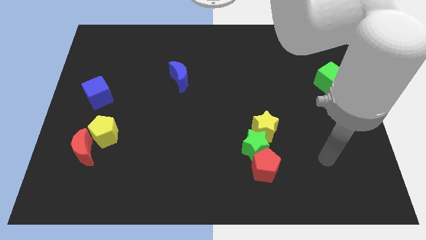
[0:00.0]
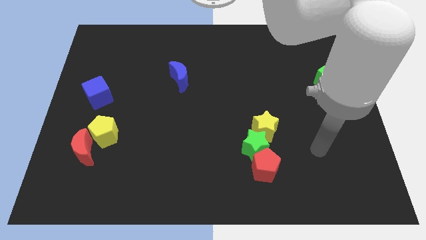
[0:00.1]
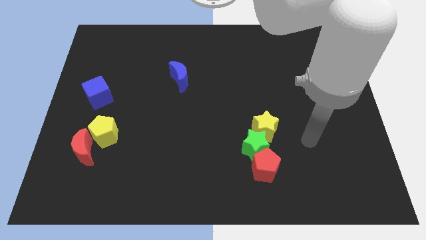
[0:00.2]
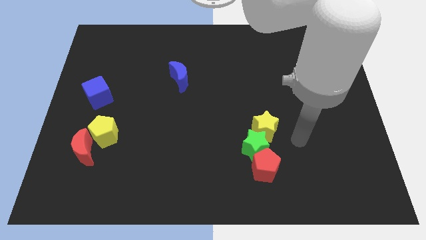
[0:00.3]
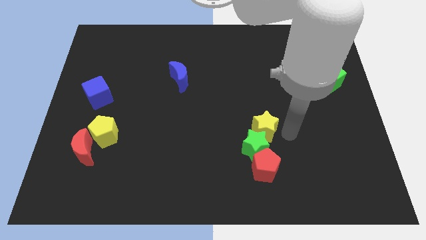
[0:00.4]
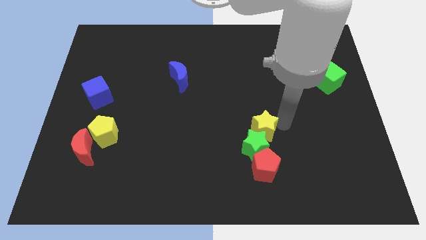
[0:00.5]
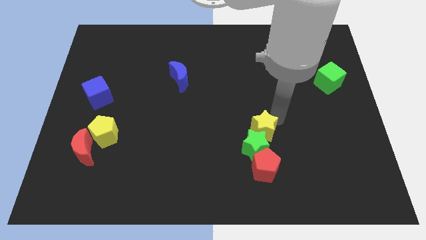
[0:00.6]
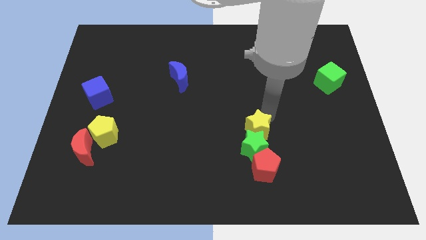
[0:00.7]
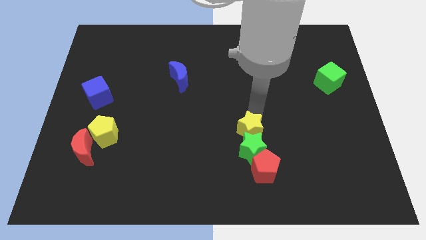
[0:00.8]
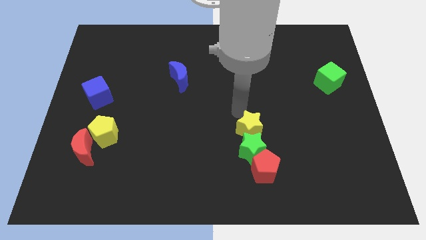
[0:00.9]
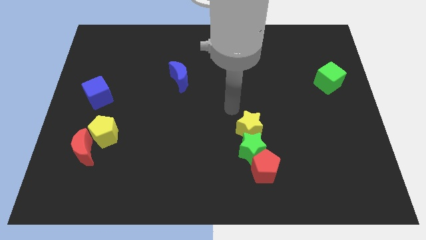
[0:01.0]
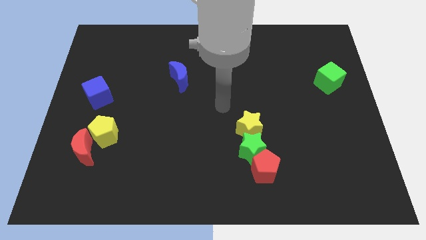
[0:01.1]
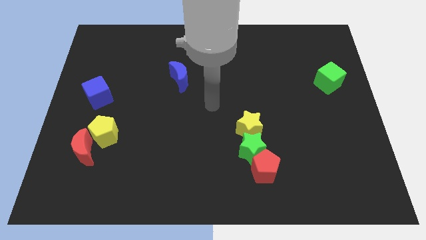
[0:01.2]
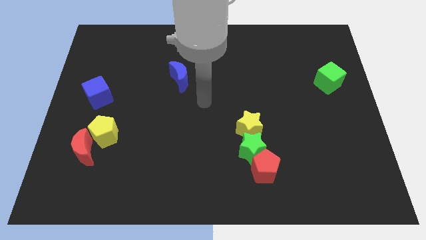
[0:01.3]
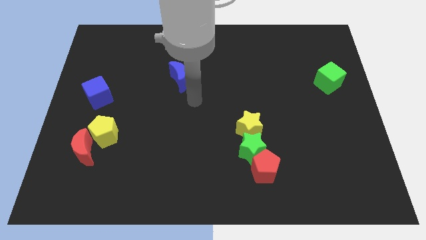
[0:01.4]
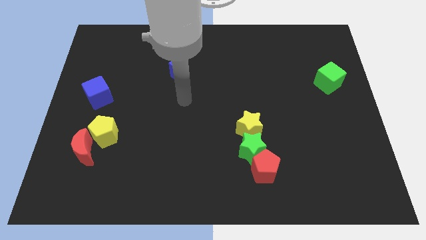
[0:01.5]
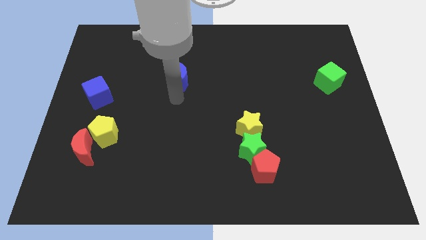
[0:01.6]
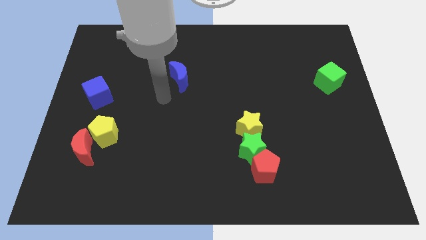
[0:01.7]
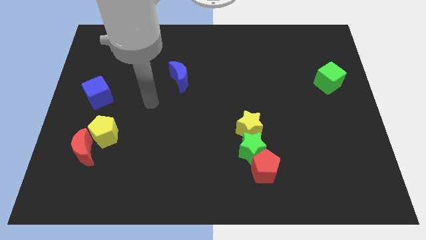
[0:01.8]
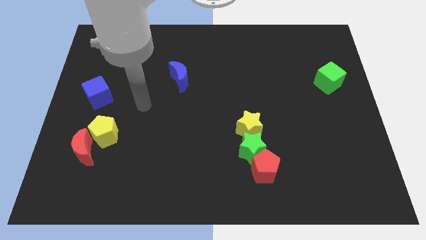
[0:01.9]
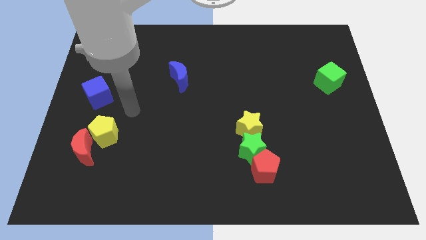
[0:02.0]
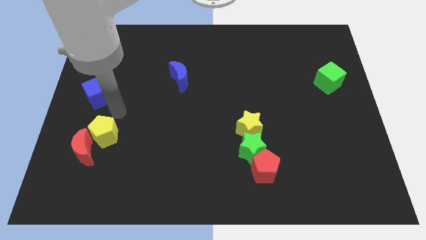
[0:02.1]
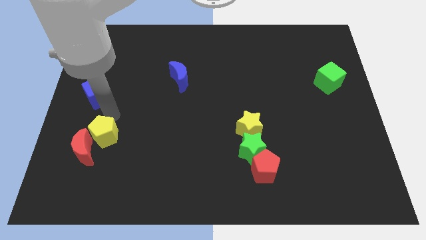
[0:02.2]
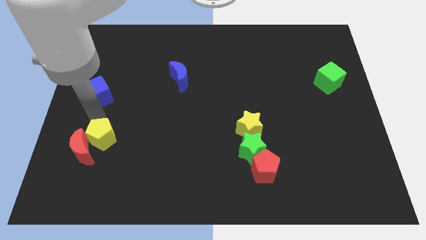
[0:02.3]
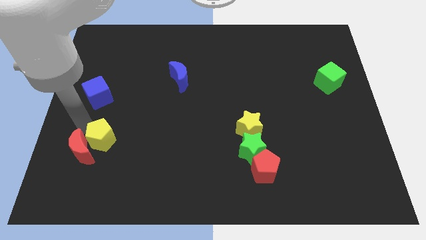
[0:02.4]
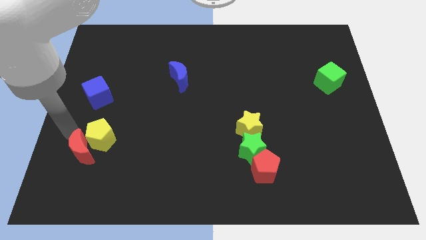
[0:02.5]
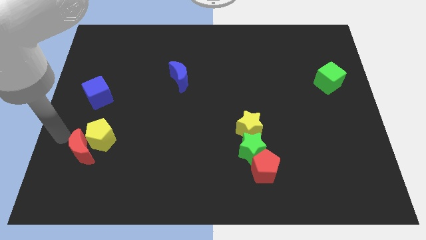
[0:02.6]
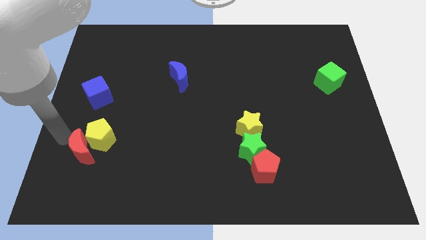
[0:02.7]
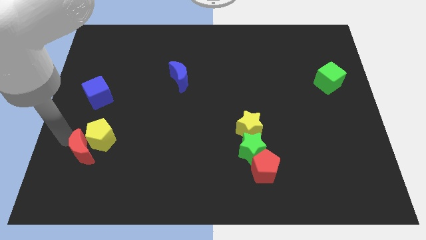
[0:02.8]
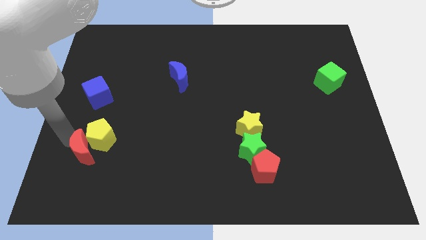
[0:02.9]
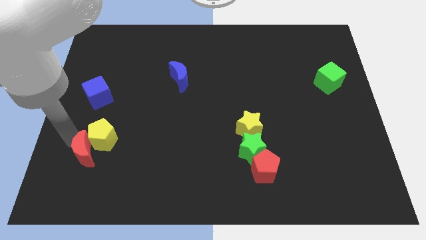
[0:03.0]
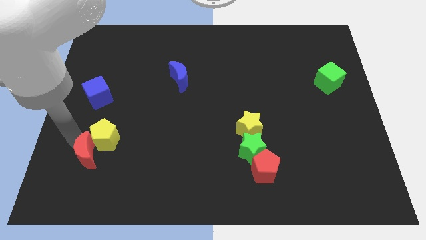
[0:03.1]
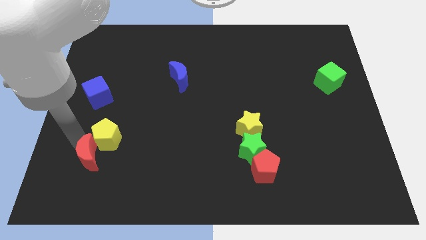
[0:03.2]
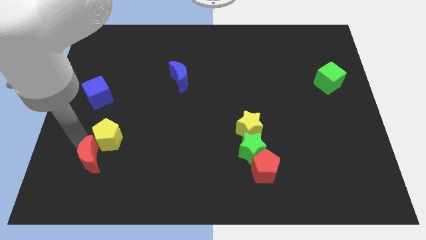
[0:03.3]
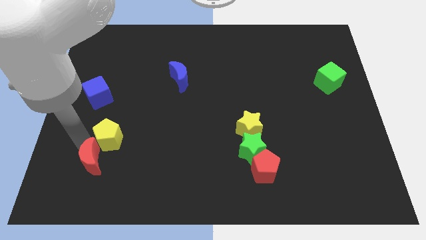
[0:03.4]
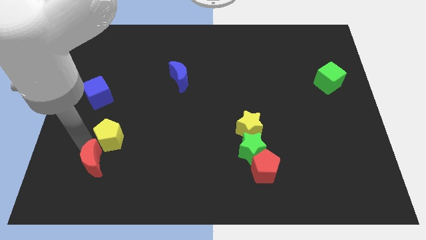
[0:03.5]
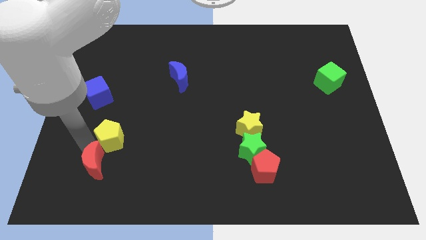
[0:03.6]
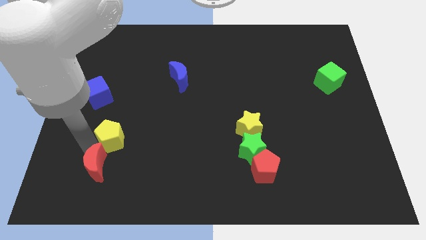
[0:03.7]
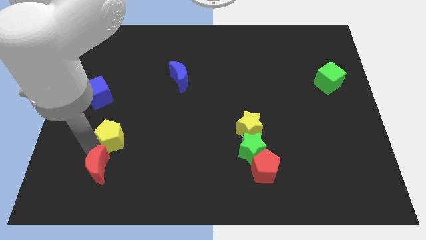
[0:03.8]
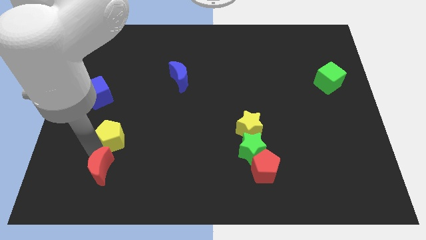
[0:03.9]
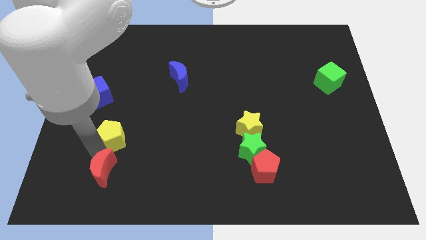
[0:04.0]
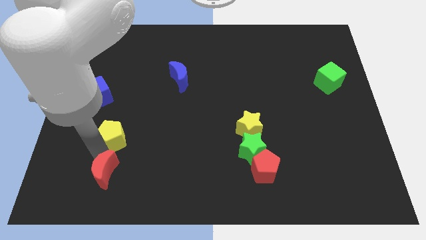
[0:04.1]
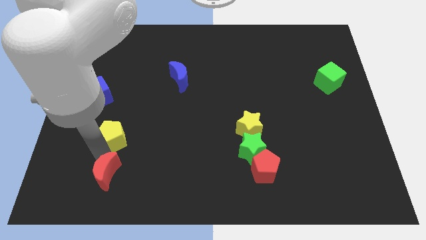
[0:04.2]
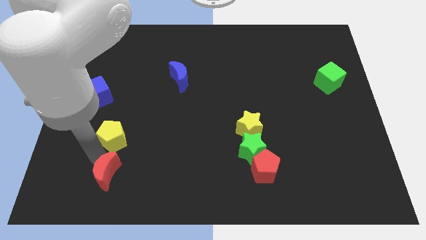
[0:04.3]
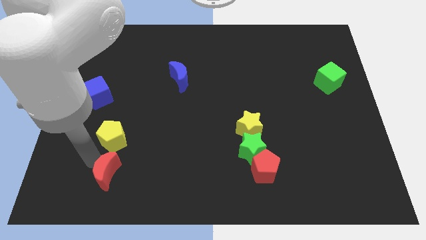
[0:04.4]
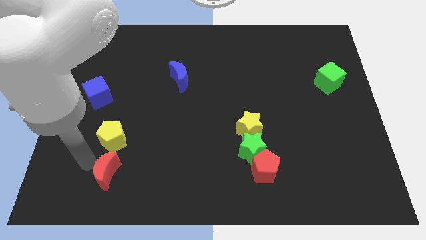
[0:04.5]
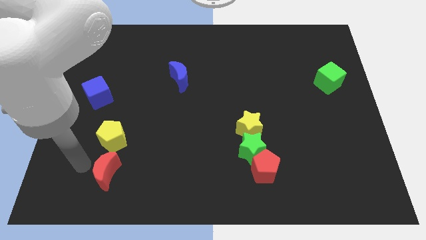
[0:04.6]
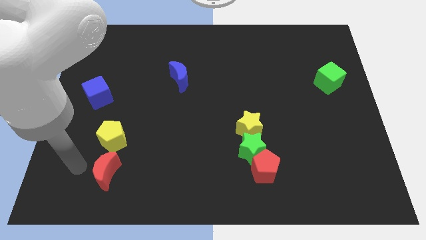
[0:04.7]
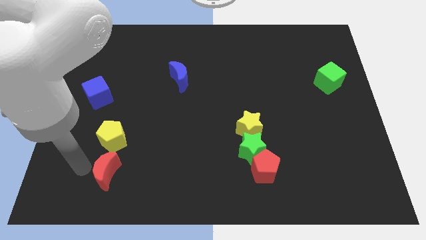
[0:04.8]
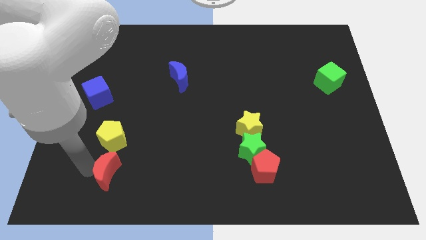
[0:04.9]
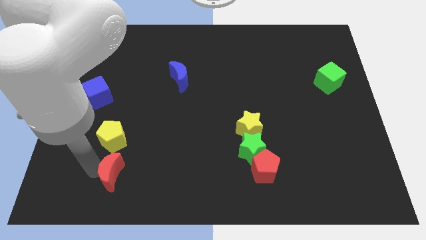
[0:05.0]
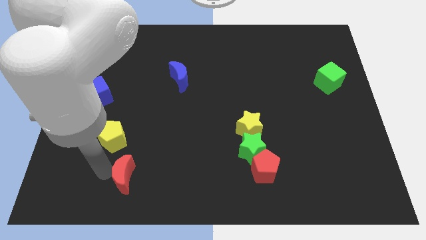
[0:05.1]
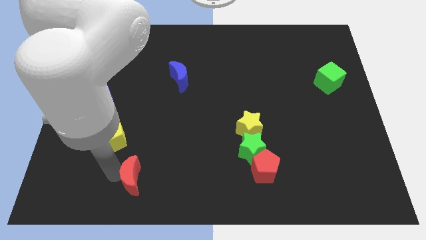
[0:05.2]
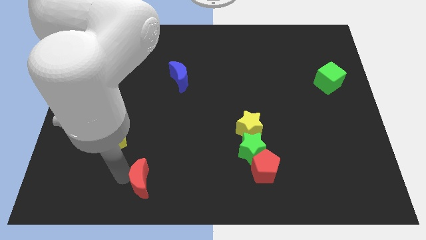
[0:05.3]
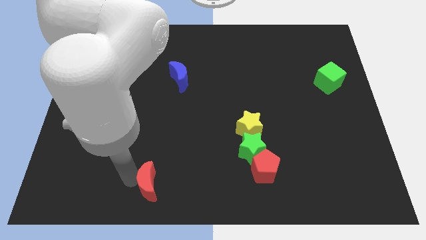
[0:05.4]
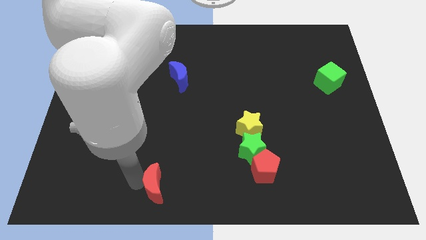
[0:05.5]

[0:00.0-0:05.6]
slide the red moon to the bottom

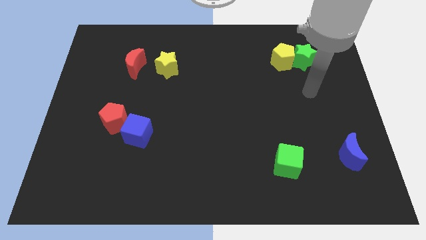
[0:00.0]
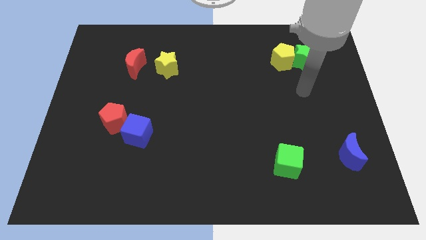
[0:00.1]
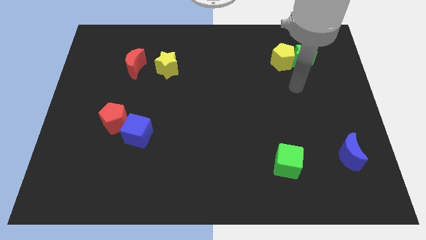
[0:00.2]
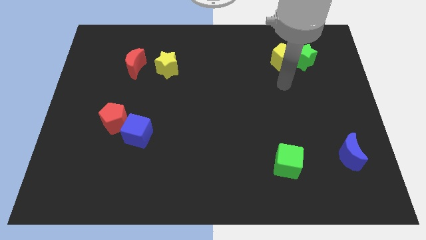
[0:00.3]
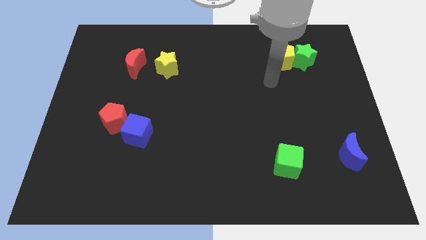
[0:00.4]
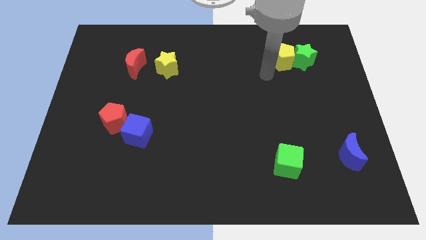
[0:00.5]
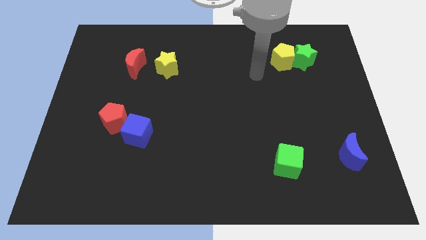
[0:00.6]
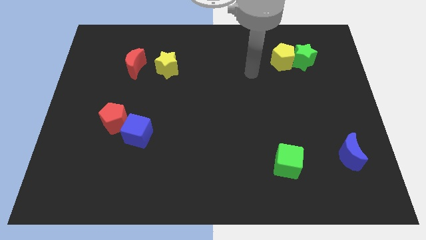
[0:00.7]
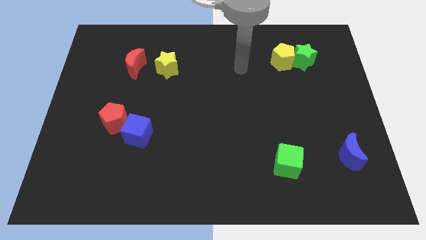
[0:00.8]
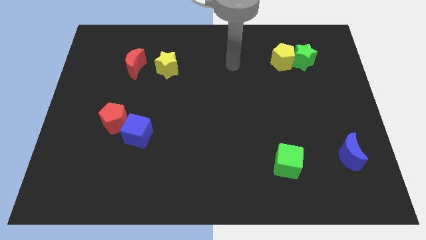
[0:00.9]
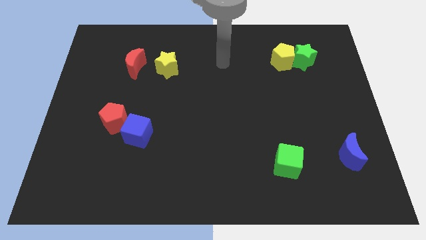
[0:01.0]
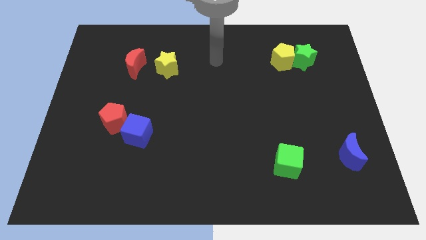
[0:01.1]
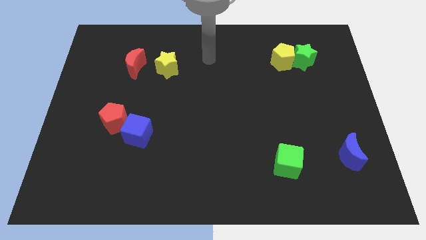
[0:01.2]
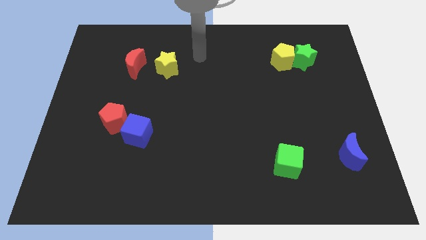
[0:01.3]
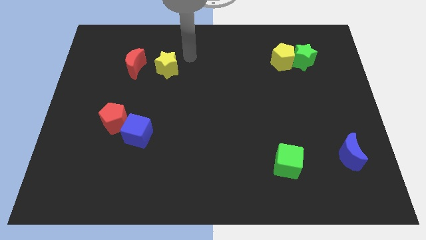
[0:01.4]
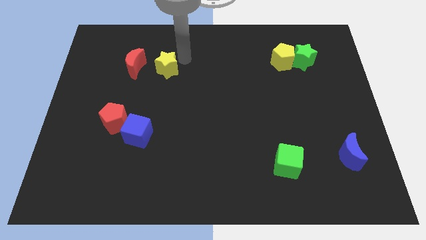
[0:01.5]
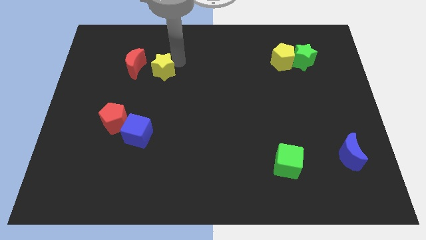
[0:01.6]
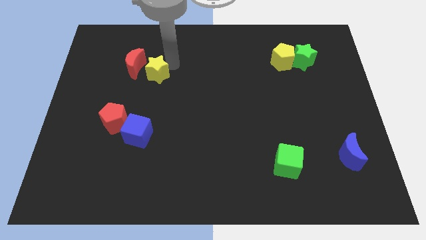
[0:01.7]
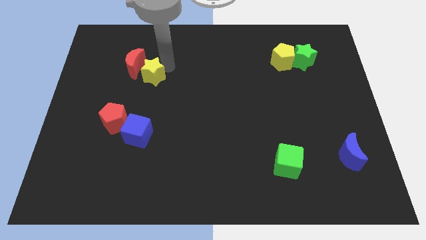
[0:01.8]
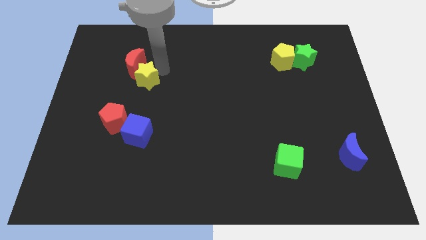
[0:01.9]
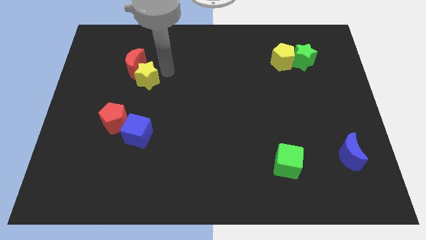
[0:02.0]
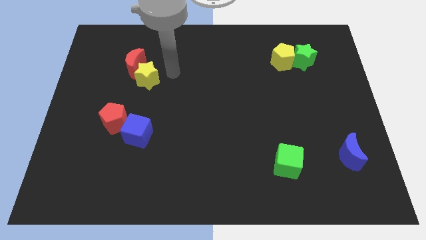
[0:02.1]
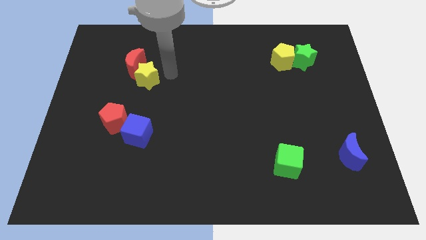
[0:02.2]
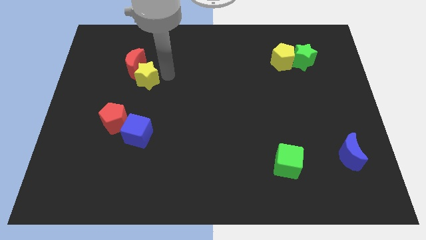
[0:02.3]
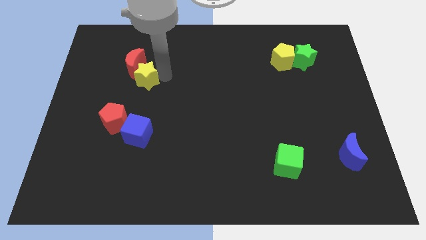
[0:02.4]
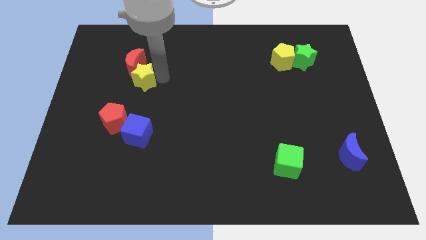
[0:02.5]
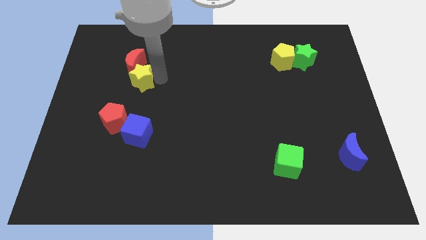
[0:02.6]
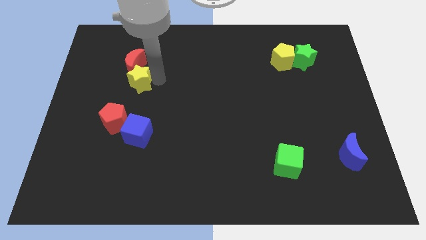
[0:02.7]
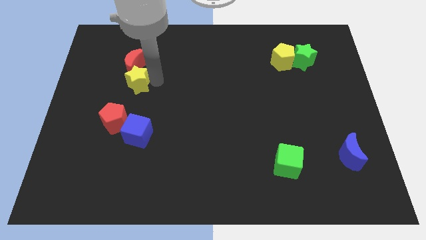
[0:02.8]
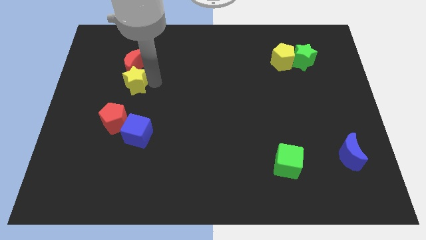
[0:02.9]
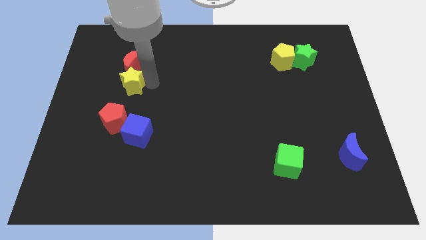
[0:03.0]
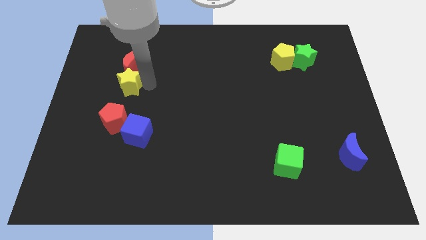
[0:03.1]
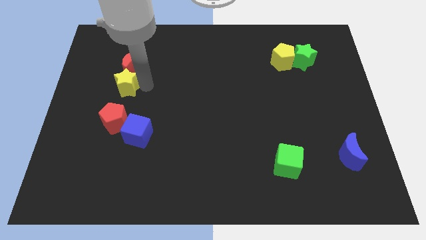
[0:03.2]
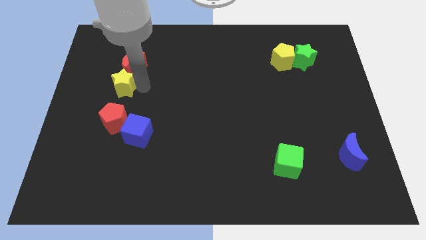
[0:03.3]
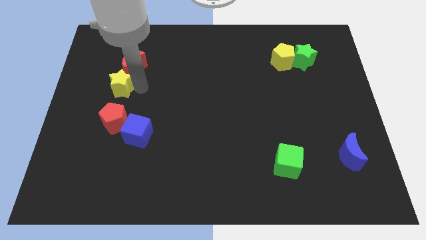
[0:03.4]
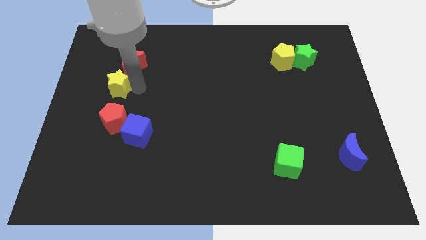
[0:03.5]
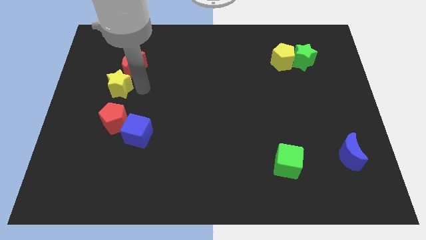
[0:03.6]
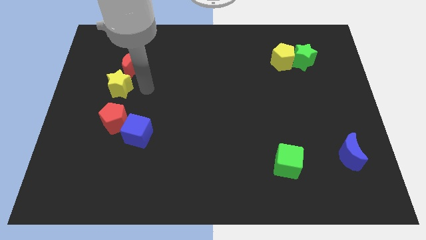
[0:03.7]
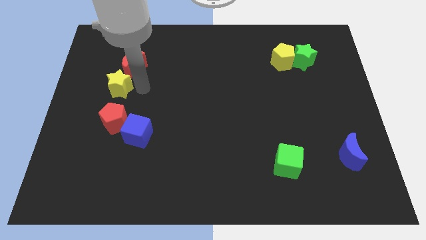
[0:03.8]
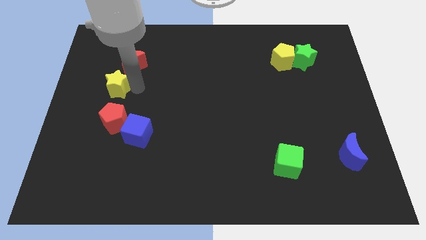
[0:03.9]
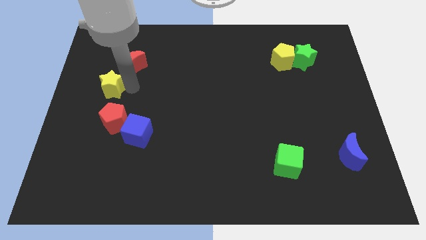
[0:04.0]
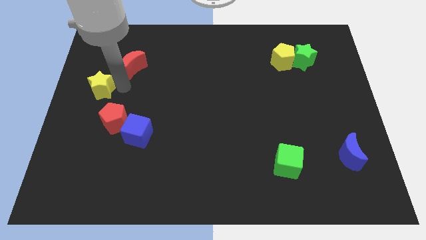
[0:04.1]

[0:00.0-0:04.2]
push the yellow star to the left side
